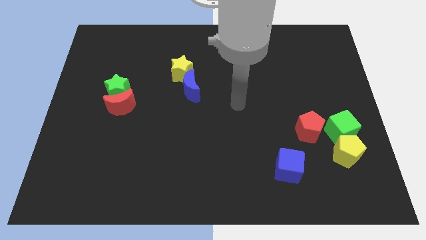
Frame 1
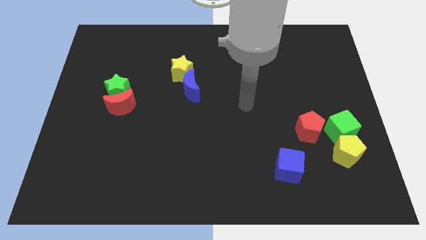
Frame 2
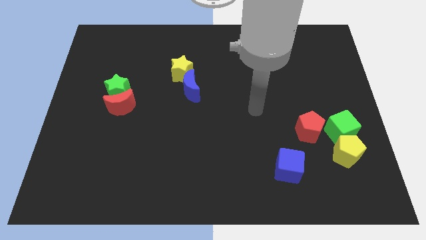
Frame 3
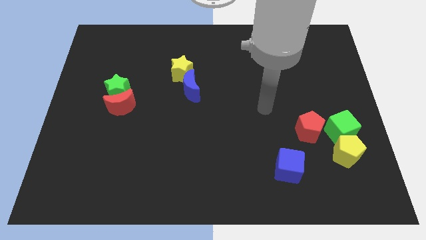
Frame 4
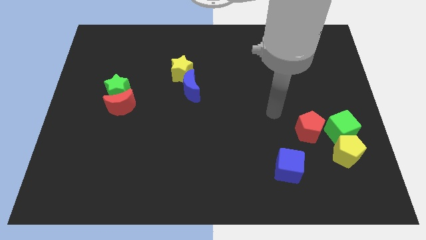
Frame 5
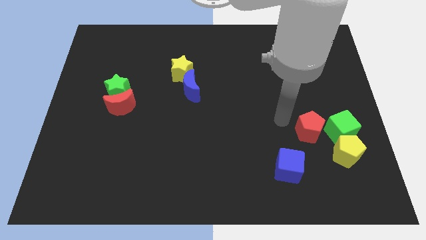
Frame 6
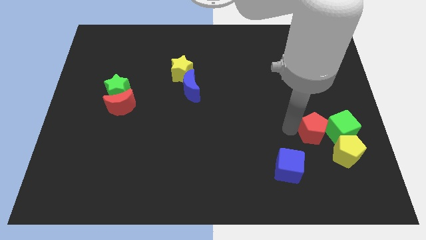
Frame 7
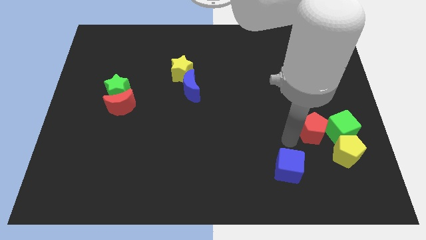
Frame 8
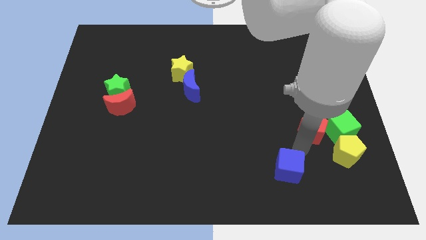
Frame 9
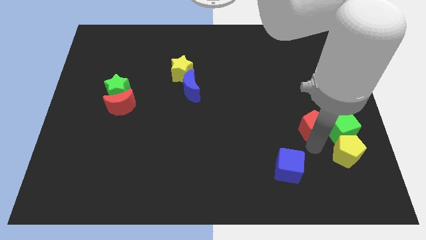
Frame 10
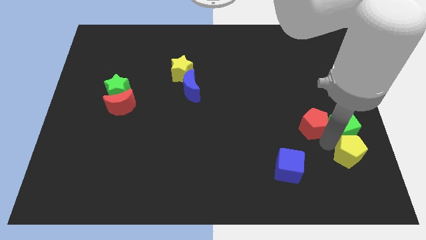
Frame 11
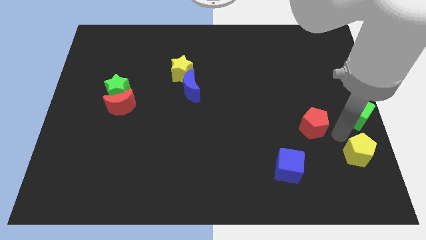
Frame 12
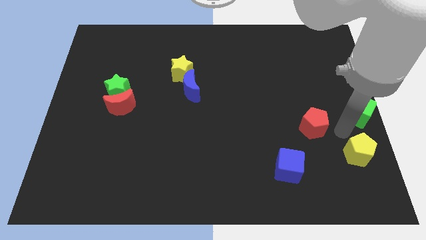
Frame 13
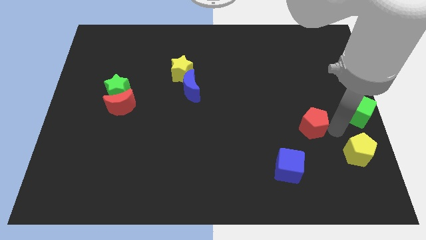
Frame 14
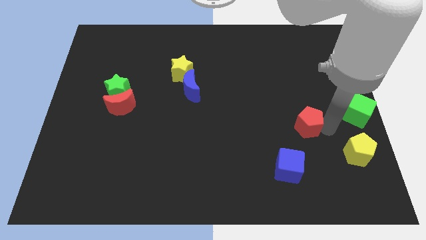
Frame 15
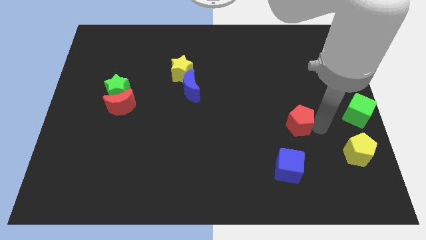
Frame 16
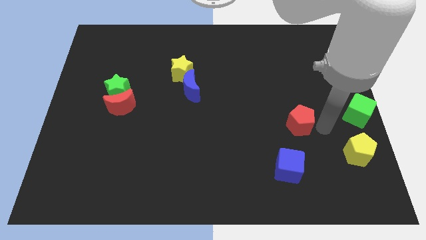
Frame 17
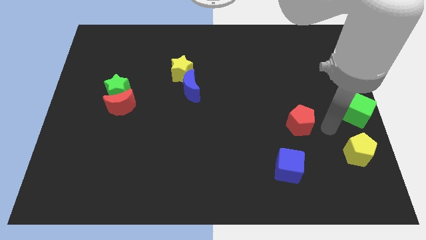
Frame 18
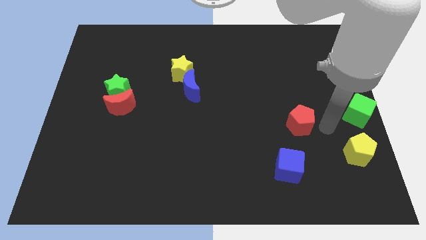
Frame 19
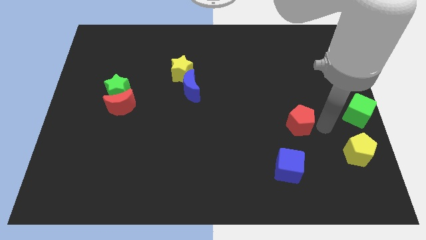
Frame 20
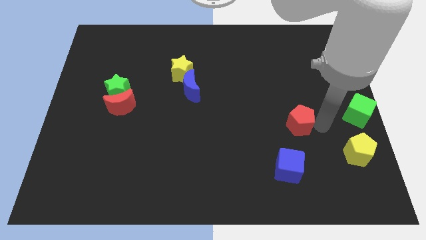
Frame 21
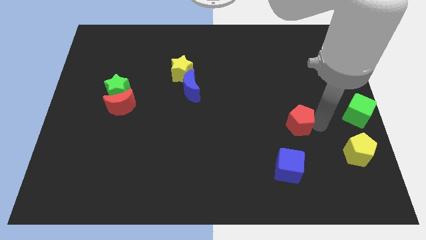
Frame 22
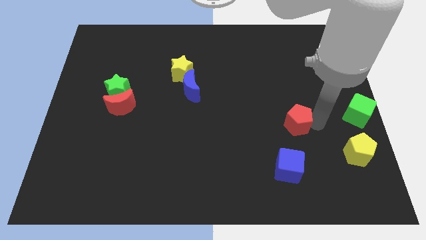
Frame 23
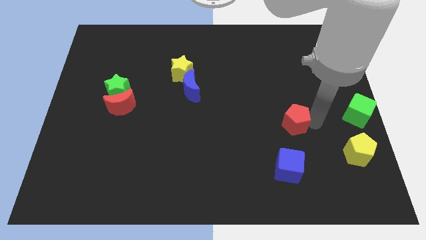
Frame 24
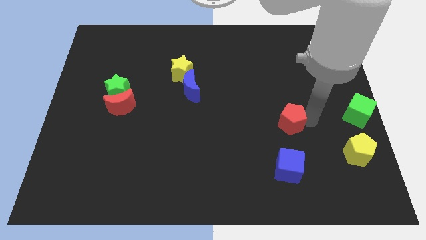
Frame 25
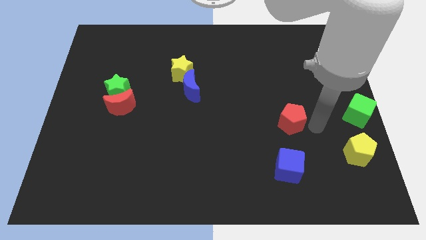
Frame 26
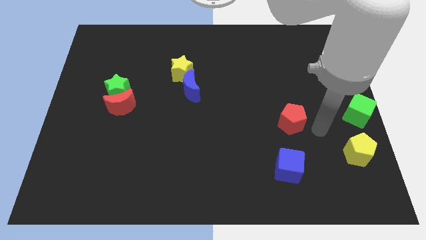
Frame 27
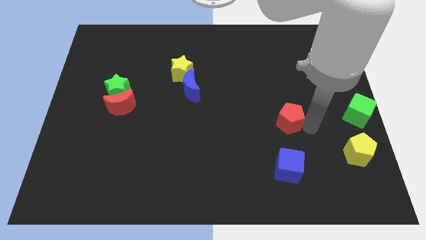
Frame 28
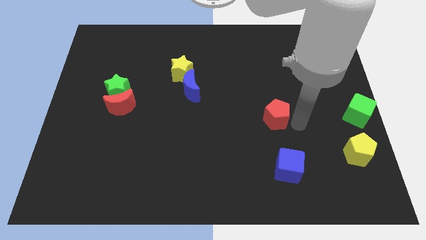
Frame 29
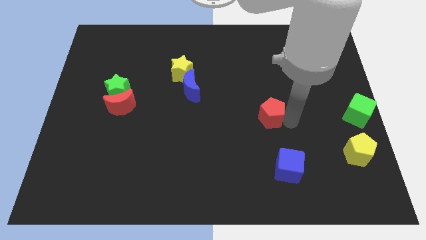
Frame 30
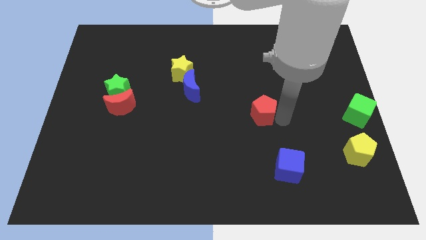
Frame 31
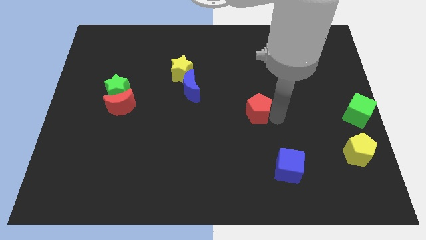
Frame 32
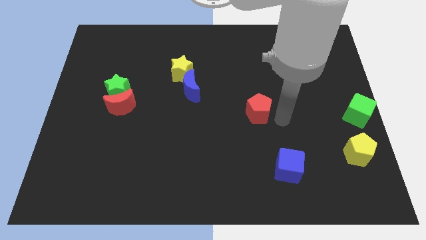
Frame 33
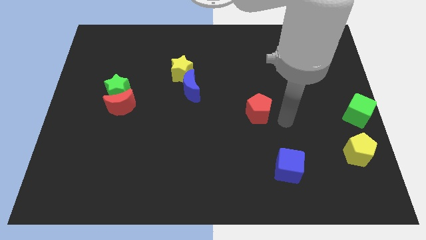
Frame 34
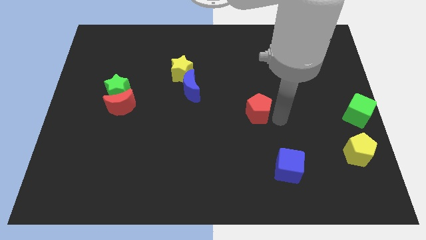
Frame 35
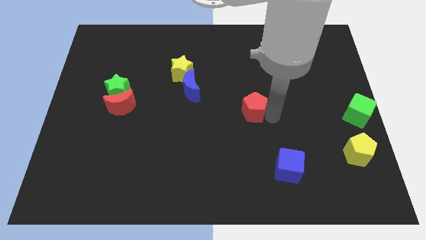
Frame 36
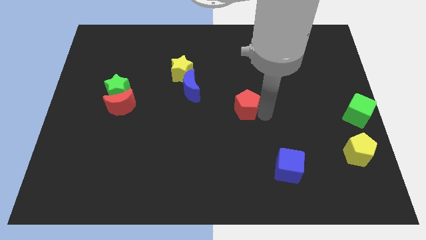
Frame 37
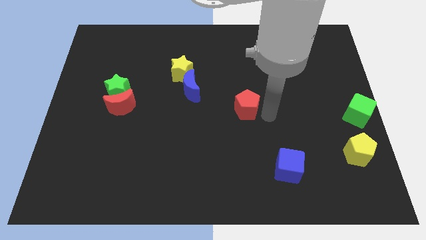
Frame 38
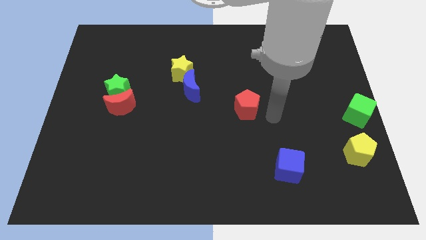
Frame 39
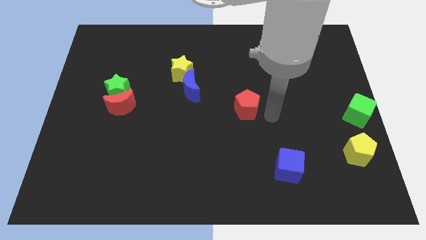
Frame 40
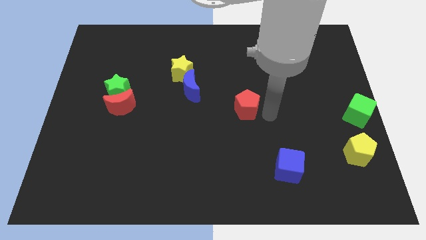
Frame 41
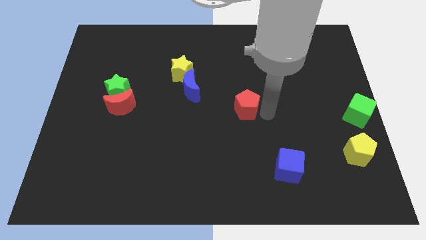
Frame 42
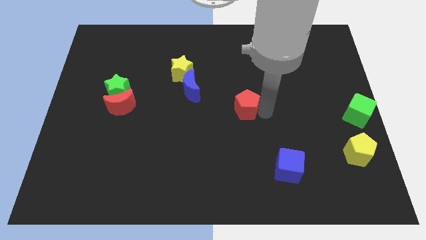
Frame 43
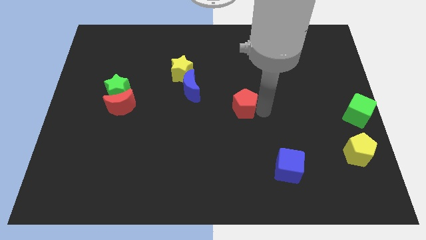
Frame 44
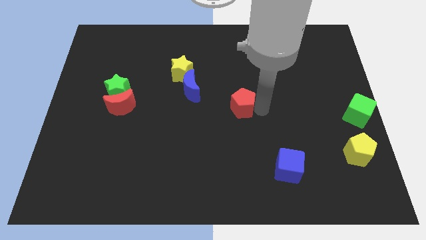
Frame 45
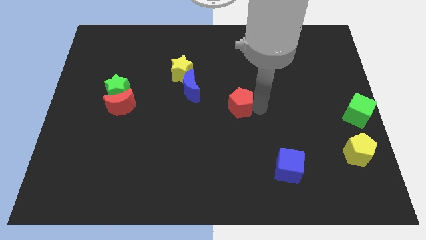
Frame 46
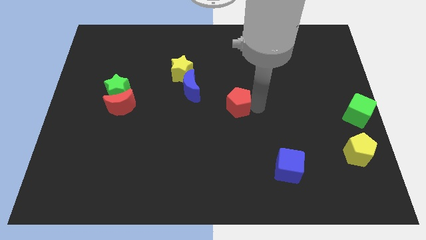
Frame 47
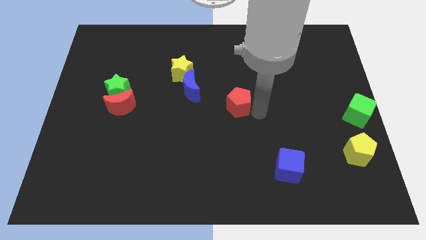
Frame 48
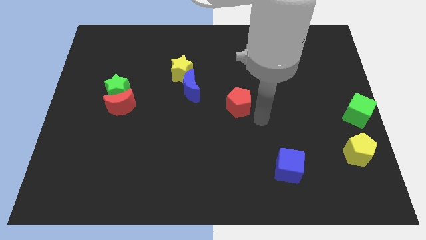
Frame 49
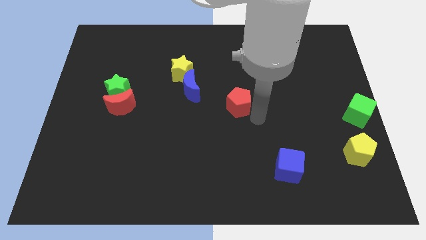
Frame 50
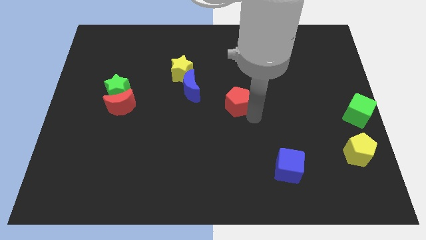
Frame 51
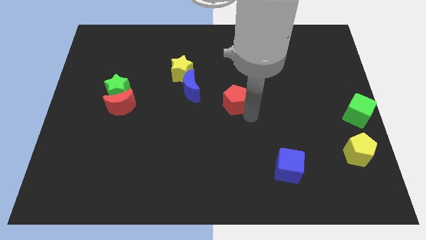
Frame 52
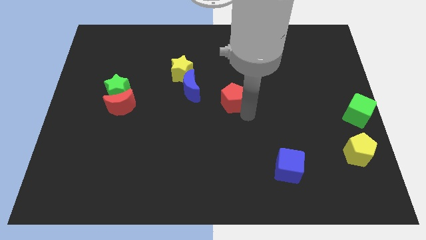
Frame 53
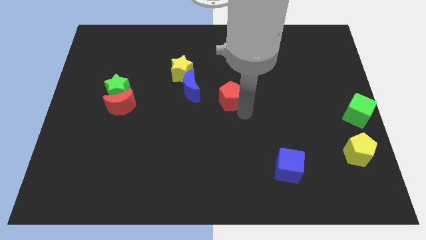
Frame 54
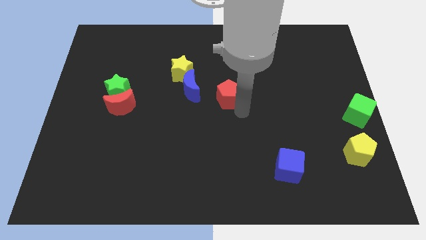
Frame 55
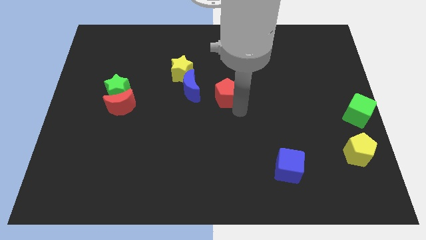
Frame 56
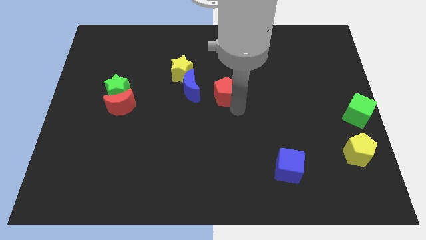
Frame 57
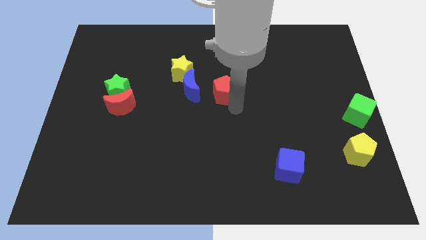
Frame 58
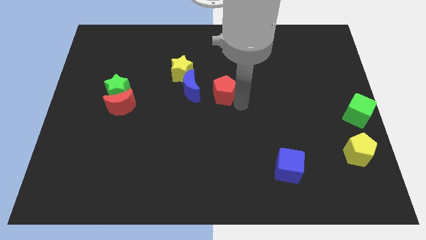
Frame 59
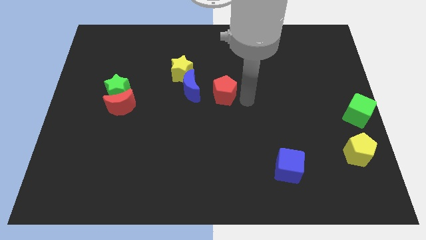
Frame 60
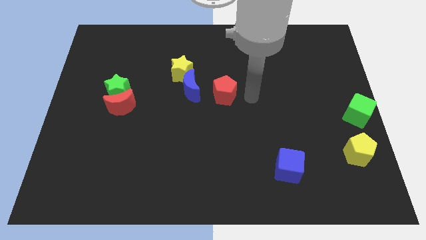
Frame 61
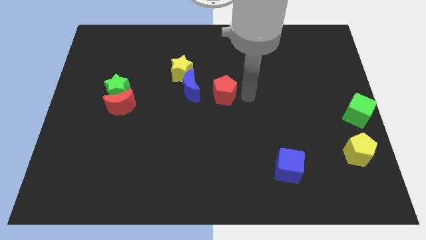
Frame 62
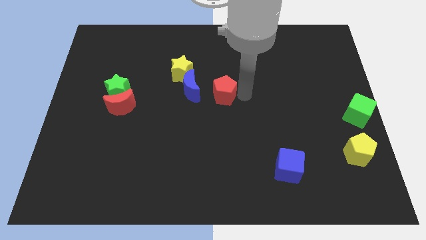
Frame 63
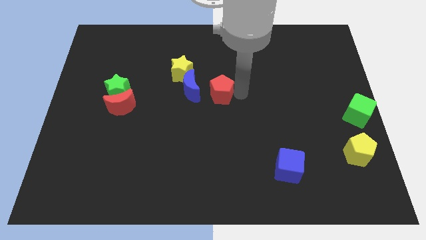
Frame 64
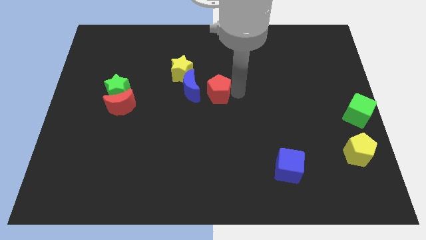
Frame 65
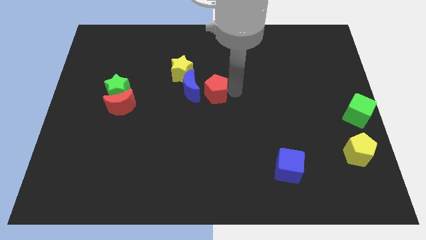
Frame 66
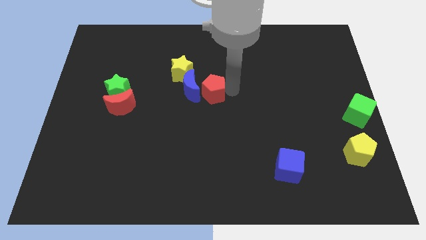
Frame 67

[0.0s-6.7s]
push the red pentagon towards the blue moon

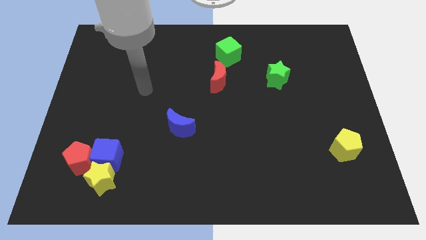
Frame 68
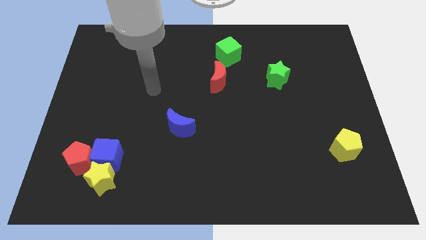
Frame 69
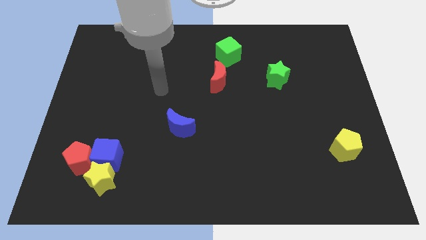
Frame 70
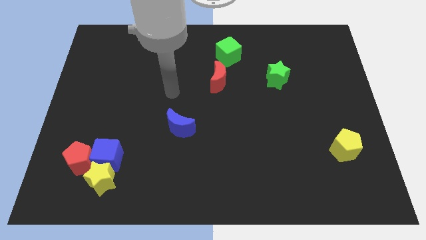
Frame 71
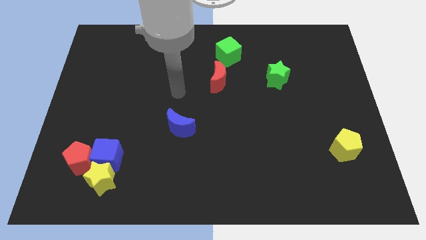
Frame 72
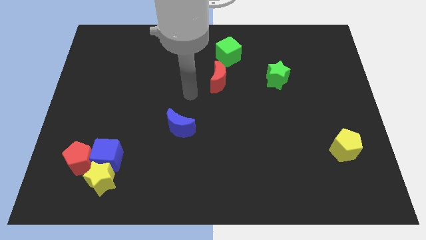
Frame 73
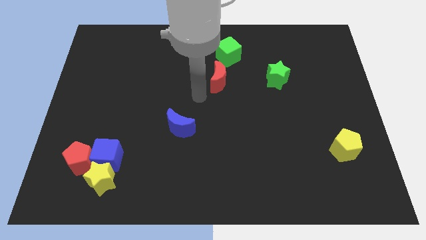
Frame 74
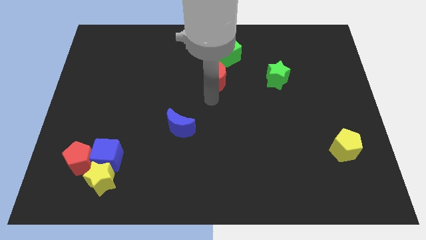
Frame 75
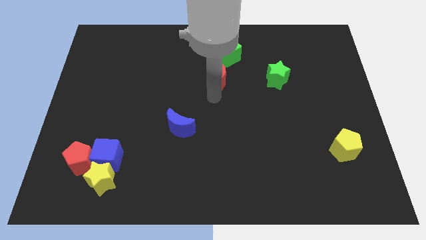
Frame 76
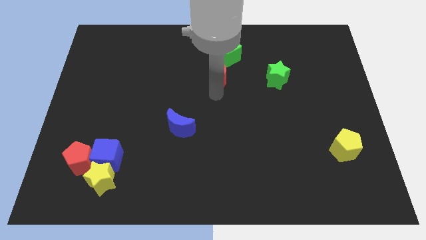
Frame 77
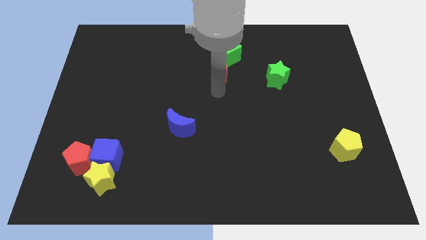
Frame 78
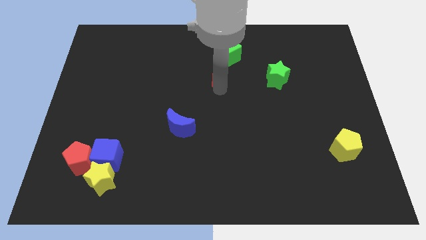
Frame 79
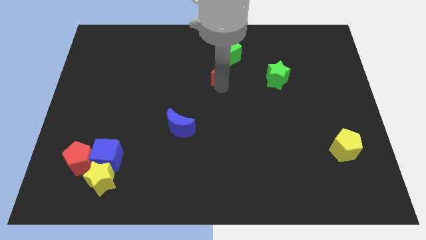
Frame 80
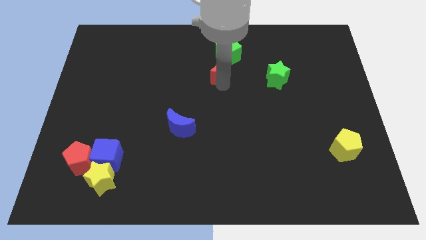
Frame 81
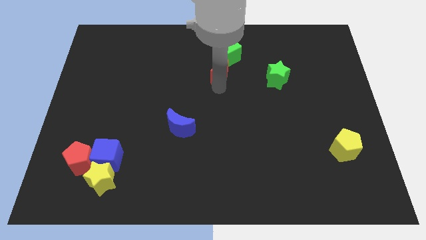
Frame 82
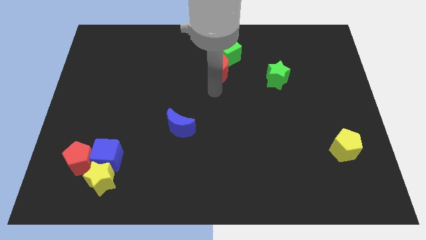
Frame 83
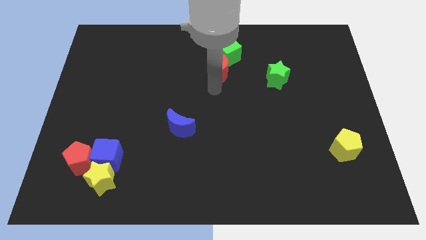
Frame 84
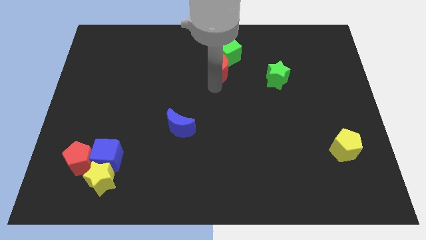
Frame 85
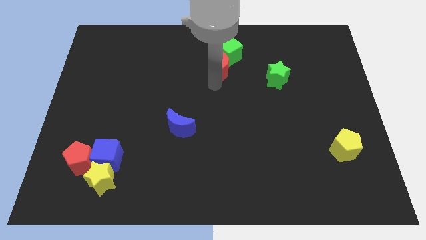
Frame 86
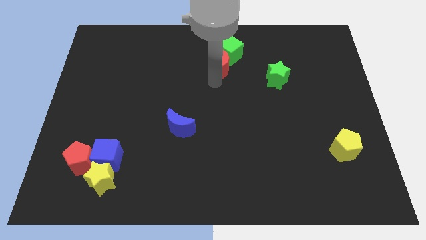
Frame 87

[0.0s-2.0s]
move the red moon to the green cube
